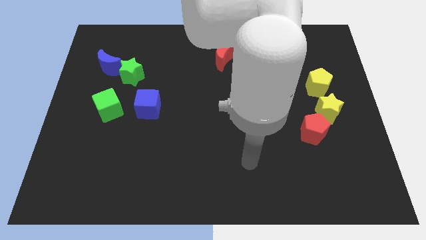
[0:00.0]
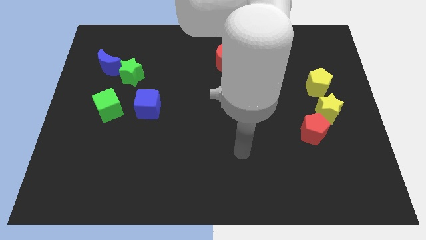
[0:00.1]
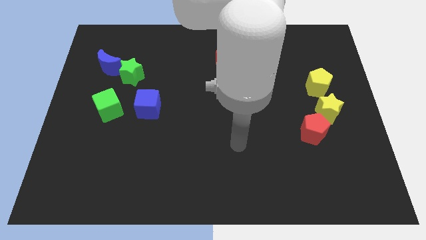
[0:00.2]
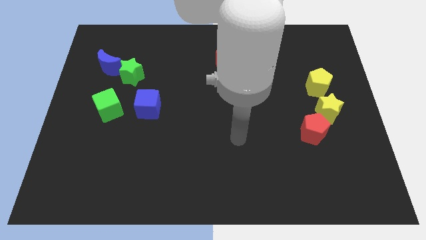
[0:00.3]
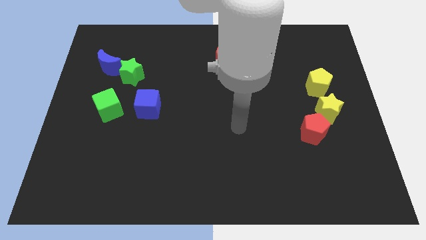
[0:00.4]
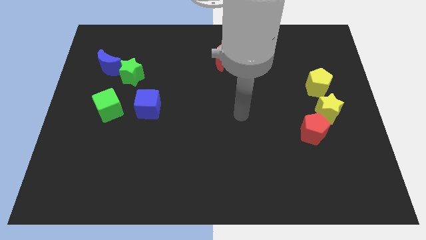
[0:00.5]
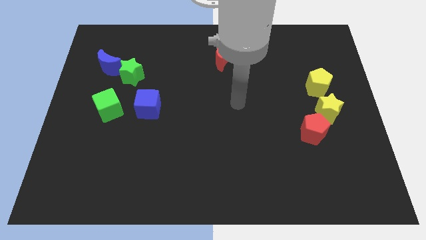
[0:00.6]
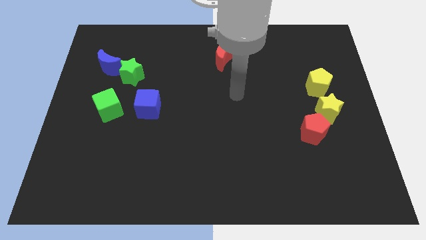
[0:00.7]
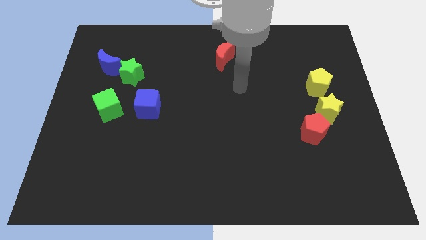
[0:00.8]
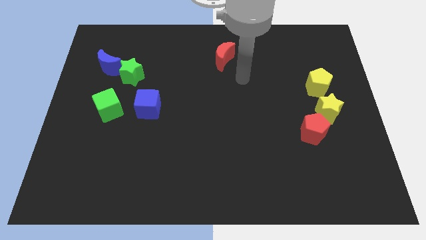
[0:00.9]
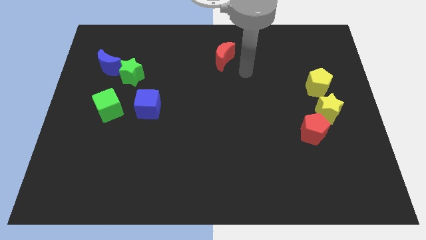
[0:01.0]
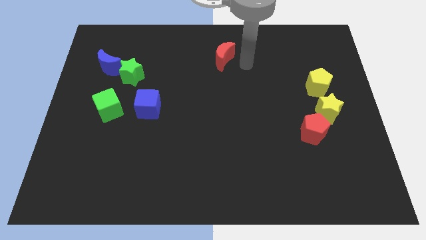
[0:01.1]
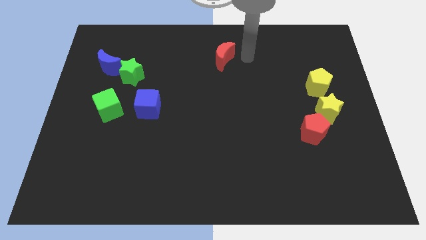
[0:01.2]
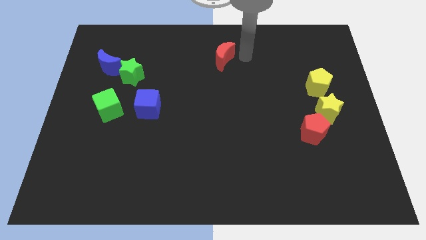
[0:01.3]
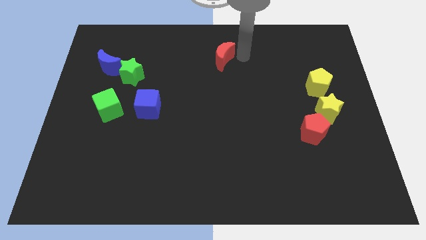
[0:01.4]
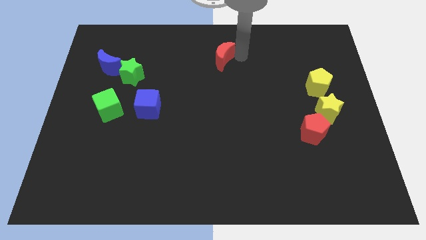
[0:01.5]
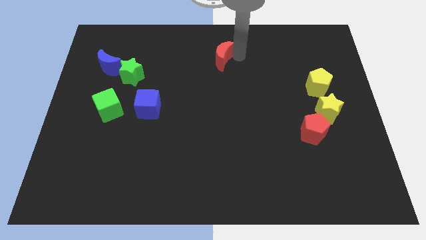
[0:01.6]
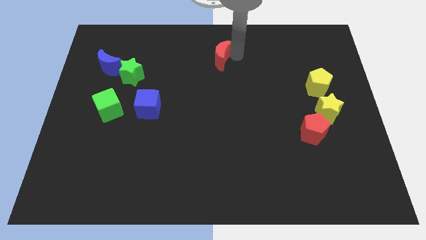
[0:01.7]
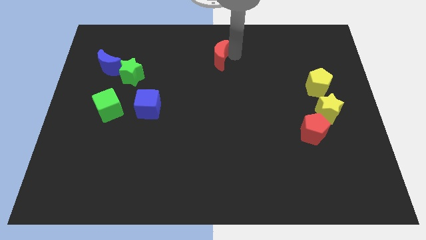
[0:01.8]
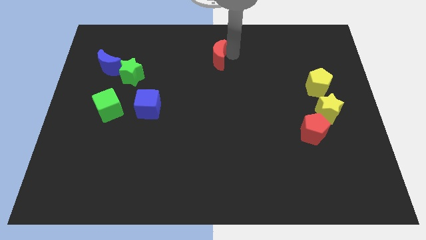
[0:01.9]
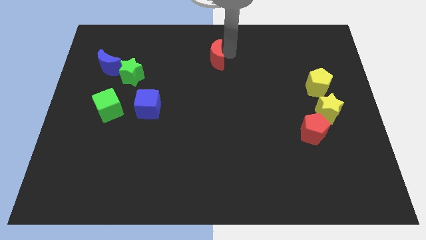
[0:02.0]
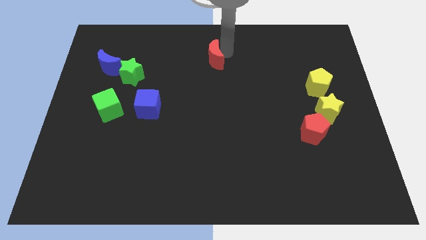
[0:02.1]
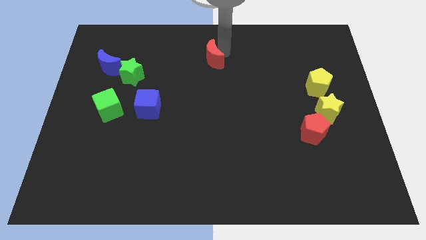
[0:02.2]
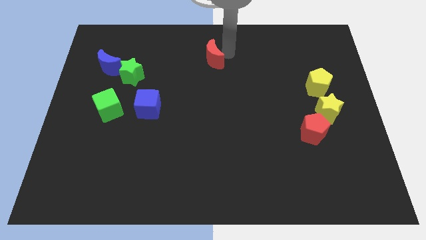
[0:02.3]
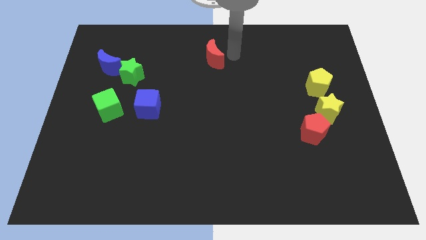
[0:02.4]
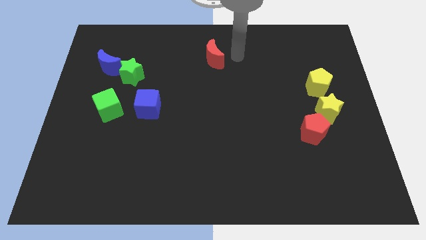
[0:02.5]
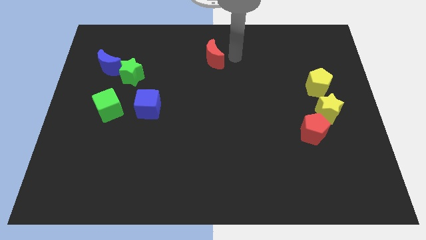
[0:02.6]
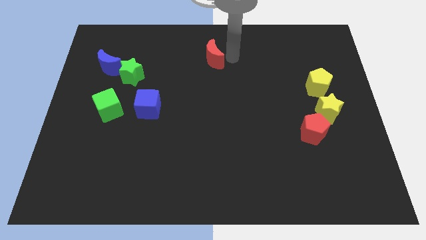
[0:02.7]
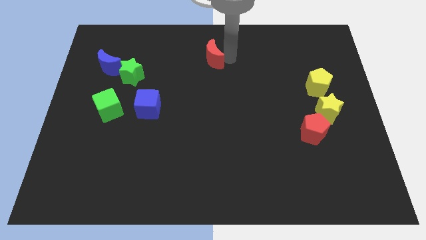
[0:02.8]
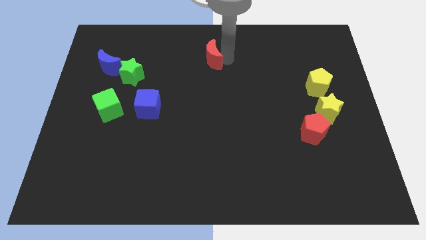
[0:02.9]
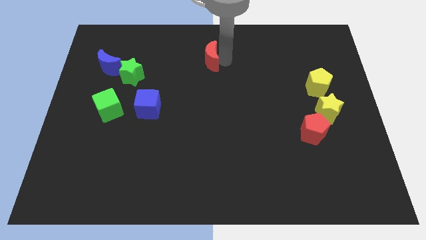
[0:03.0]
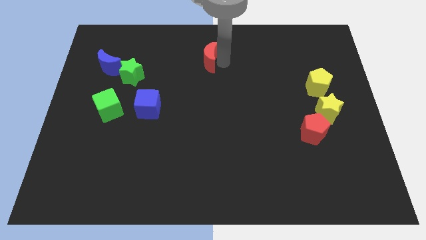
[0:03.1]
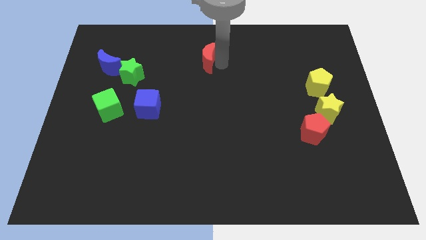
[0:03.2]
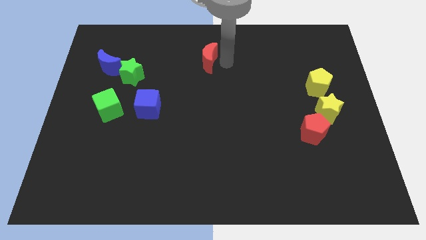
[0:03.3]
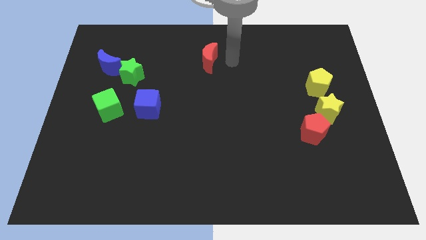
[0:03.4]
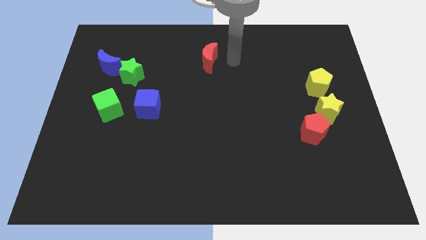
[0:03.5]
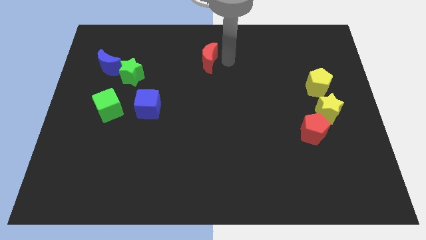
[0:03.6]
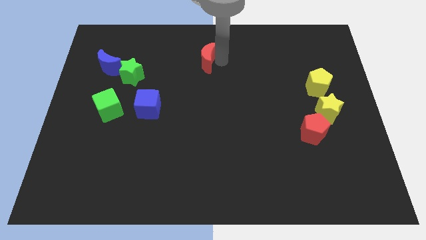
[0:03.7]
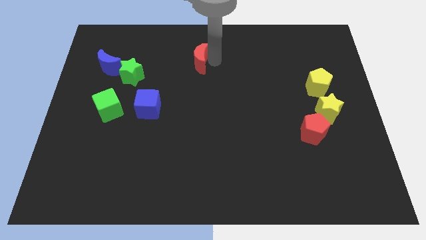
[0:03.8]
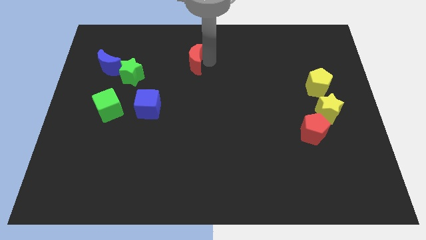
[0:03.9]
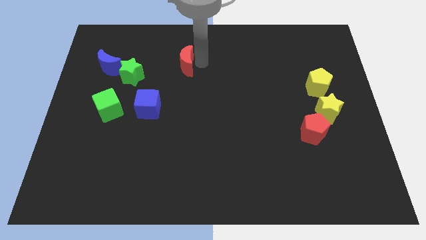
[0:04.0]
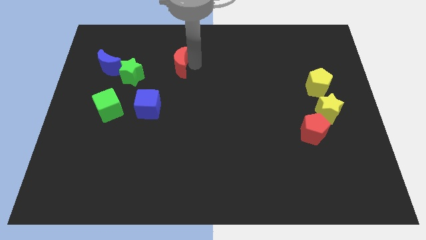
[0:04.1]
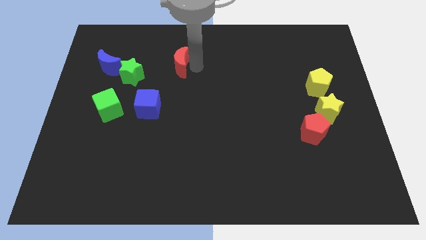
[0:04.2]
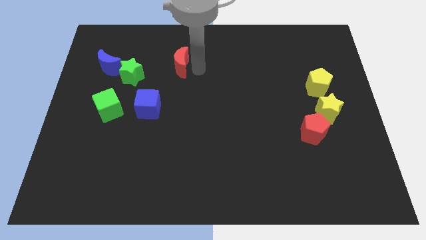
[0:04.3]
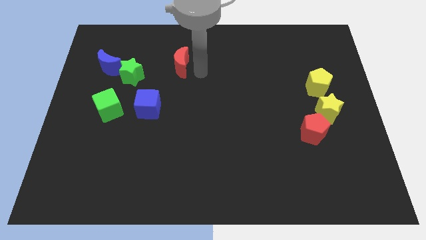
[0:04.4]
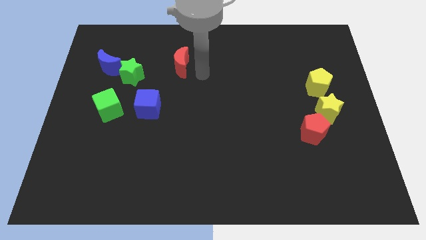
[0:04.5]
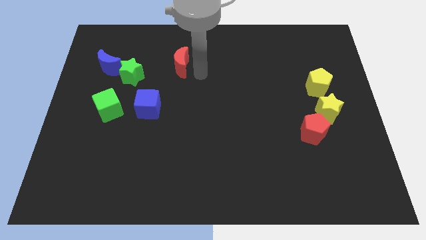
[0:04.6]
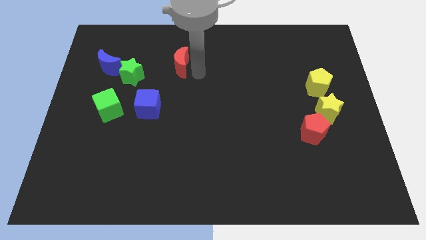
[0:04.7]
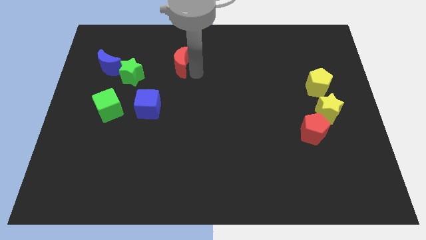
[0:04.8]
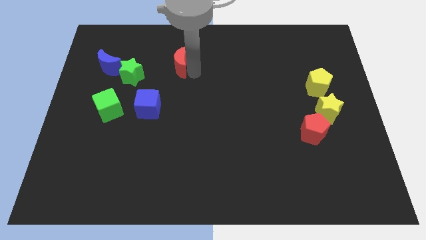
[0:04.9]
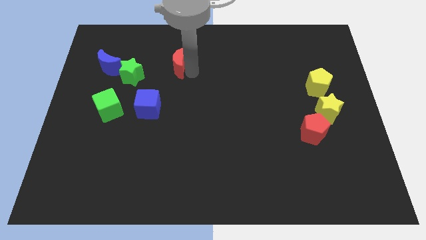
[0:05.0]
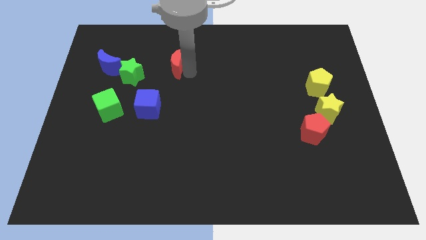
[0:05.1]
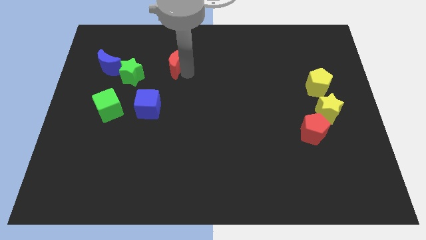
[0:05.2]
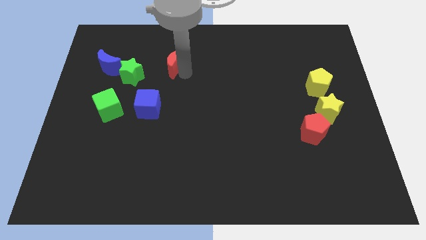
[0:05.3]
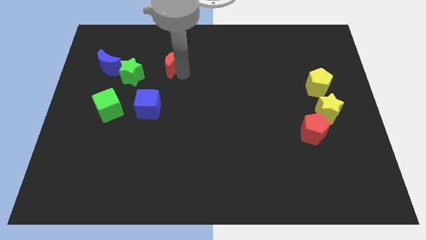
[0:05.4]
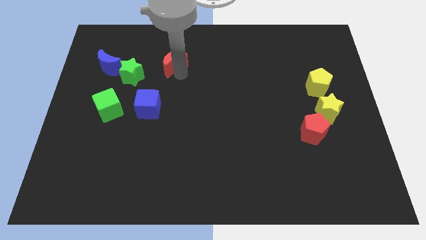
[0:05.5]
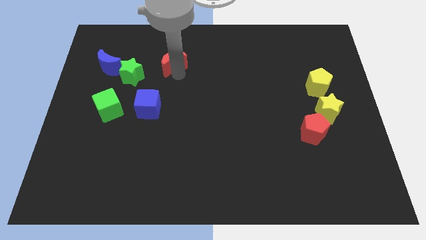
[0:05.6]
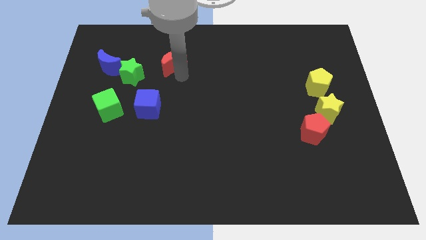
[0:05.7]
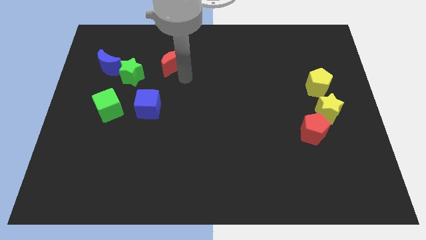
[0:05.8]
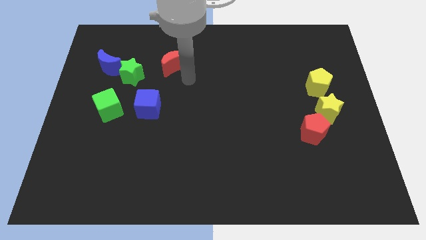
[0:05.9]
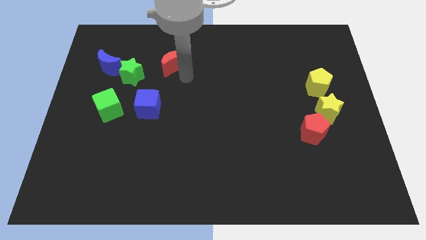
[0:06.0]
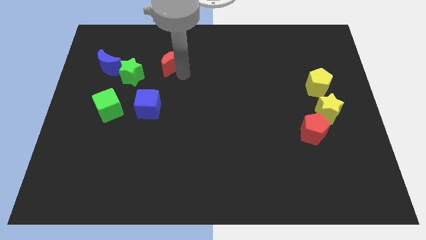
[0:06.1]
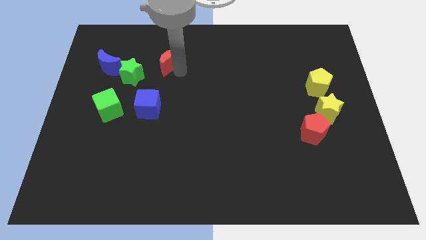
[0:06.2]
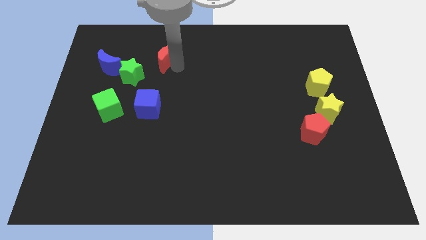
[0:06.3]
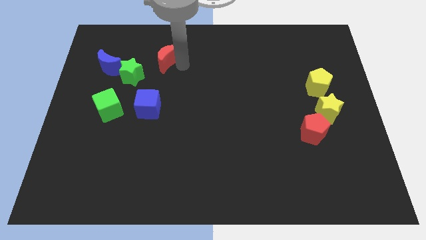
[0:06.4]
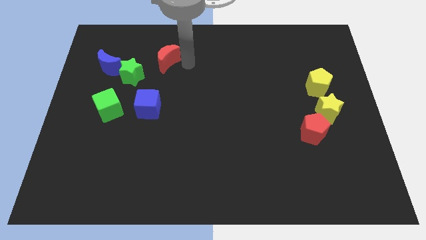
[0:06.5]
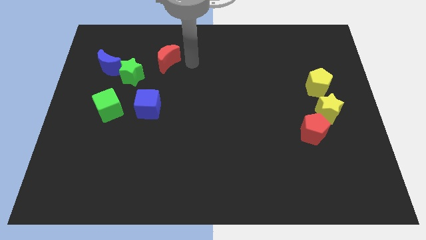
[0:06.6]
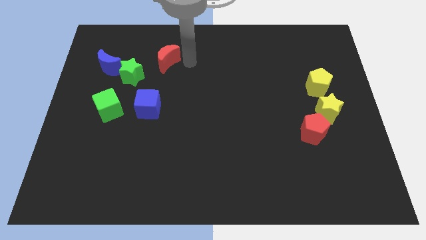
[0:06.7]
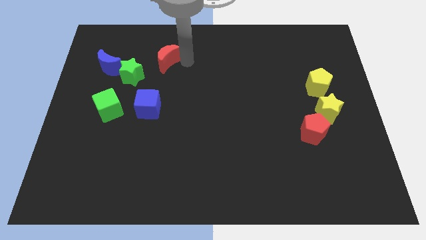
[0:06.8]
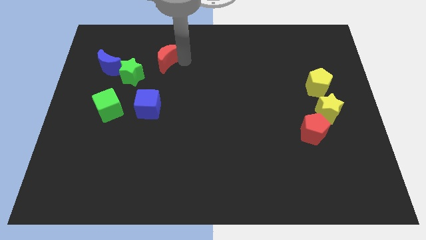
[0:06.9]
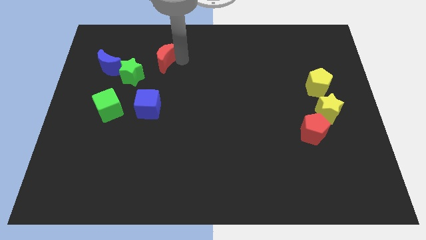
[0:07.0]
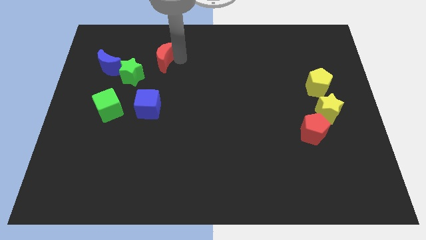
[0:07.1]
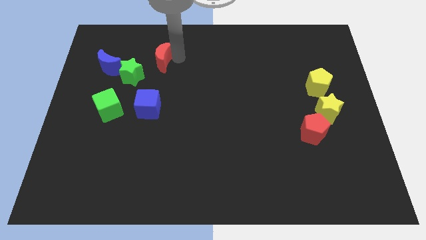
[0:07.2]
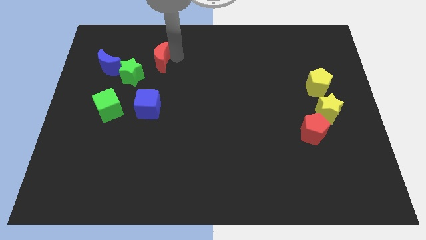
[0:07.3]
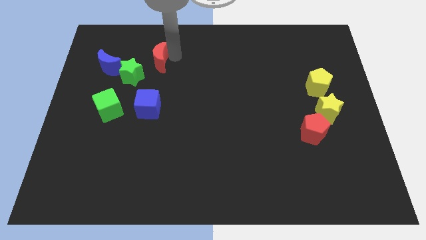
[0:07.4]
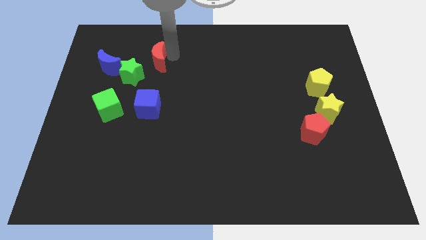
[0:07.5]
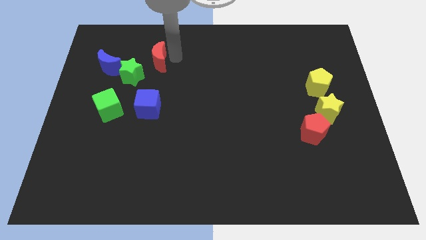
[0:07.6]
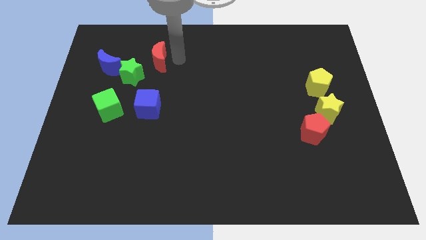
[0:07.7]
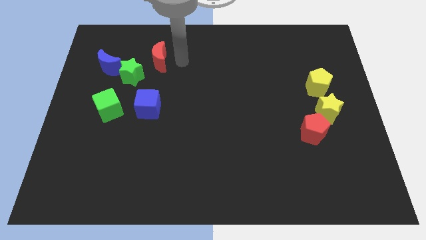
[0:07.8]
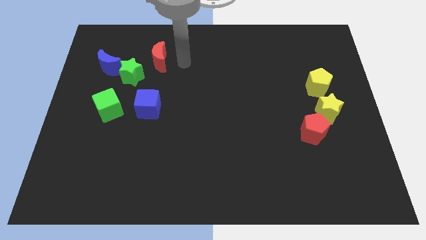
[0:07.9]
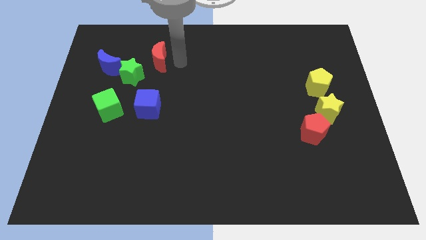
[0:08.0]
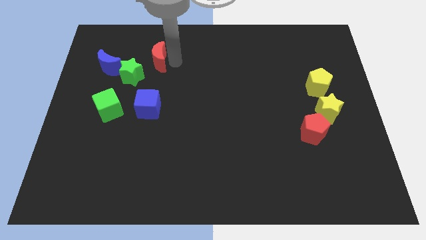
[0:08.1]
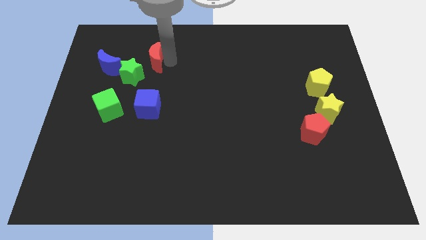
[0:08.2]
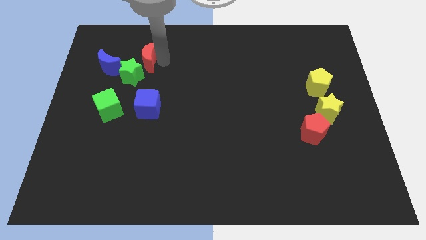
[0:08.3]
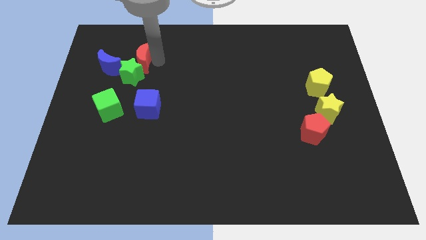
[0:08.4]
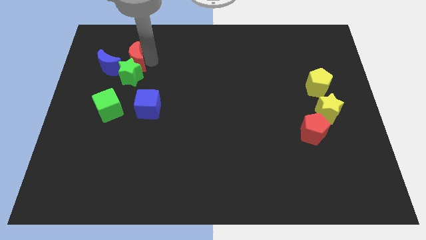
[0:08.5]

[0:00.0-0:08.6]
move the red moon diagonally up and to the left of the green star
